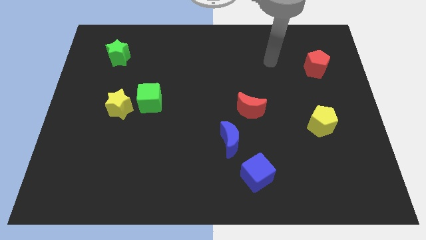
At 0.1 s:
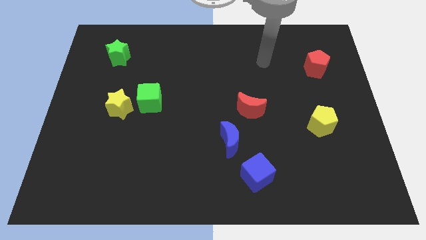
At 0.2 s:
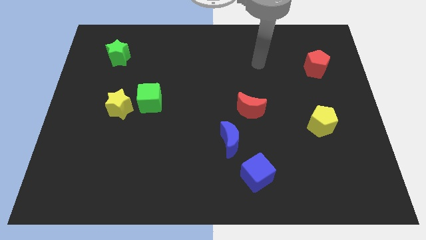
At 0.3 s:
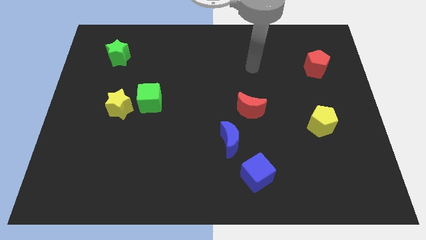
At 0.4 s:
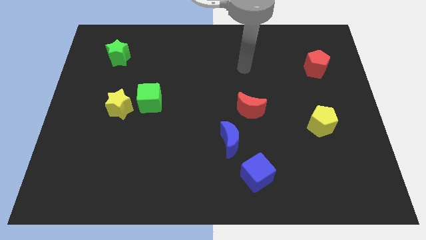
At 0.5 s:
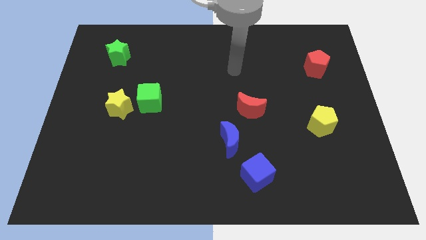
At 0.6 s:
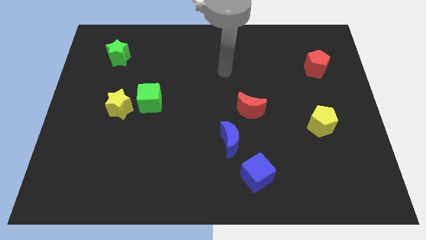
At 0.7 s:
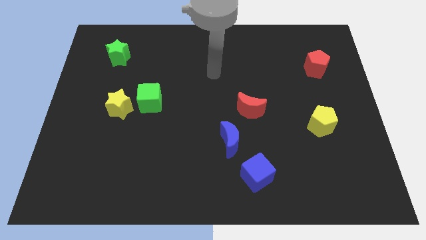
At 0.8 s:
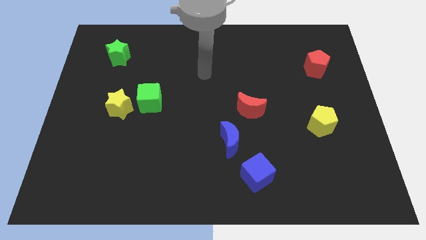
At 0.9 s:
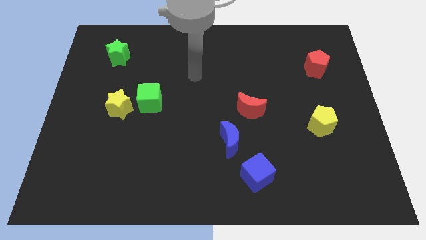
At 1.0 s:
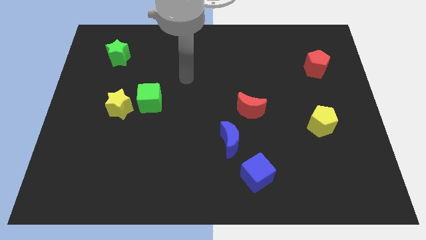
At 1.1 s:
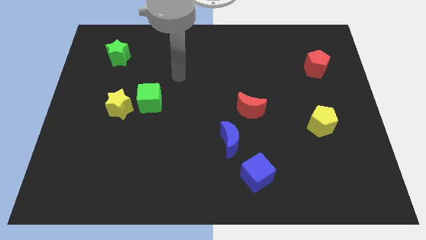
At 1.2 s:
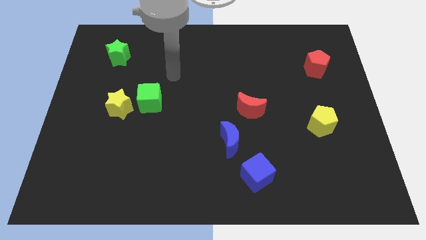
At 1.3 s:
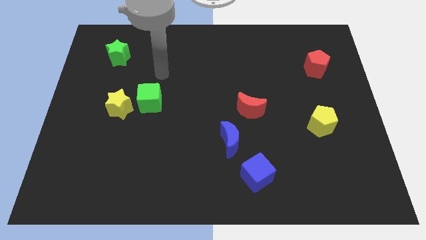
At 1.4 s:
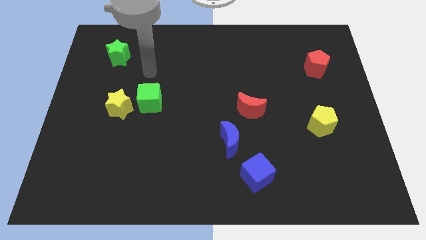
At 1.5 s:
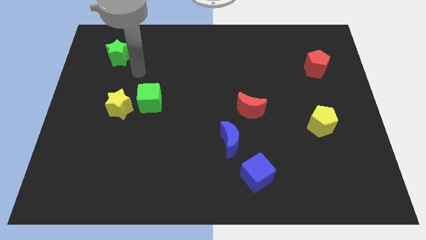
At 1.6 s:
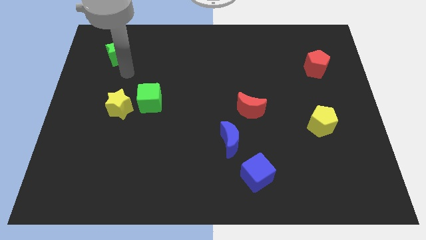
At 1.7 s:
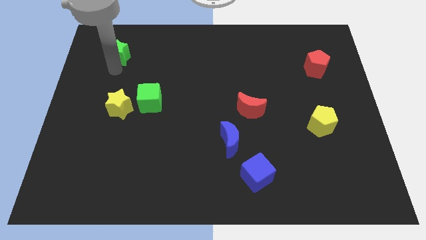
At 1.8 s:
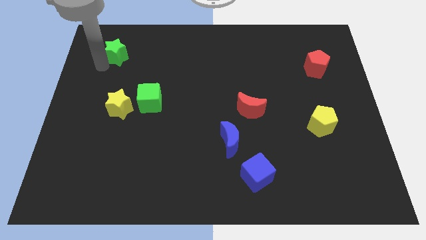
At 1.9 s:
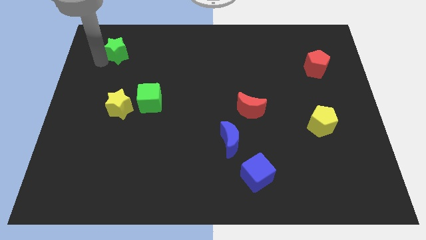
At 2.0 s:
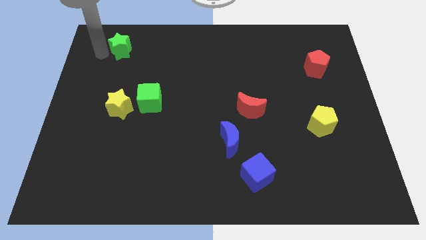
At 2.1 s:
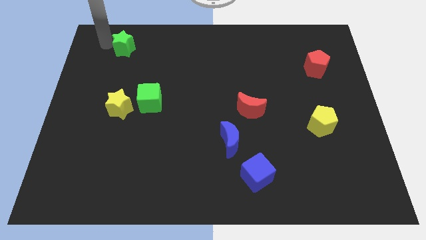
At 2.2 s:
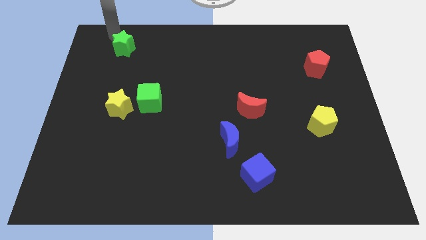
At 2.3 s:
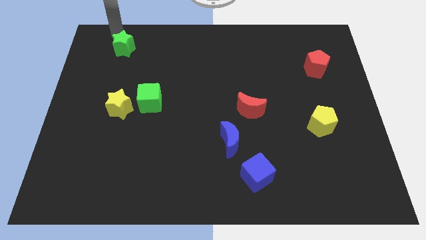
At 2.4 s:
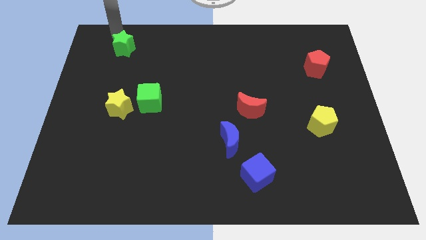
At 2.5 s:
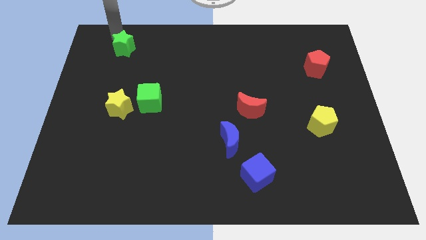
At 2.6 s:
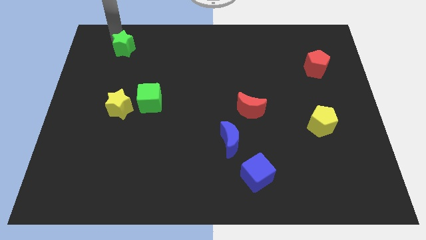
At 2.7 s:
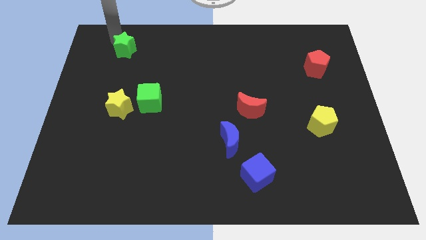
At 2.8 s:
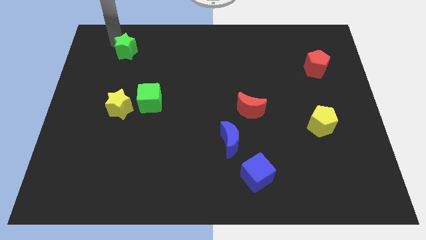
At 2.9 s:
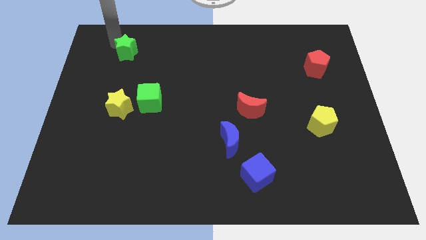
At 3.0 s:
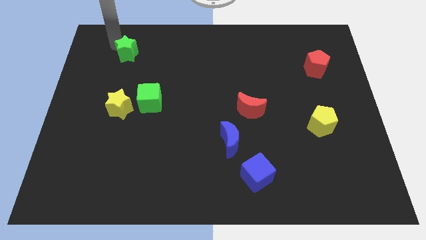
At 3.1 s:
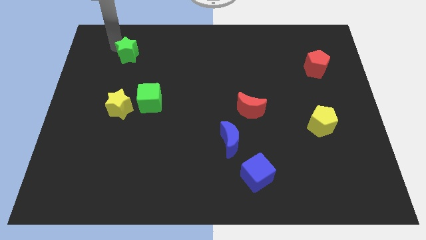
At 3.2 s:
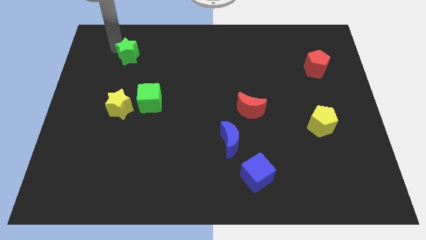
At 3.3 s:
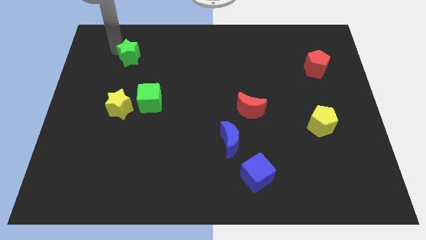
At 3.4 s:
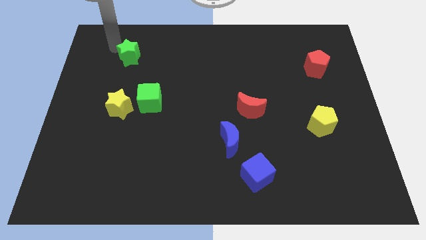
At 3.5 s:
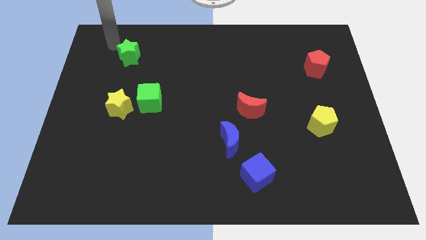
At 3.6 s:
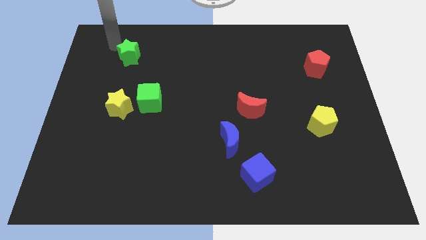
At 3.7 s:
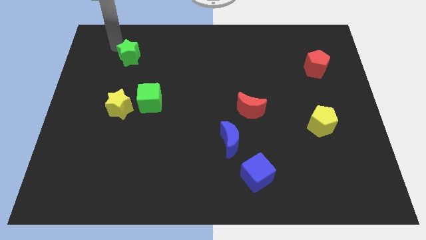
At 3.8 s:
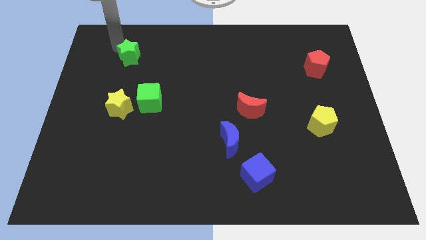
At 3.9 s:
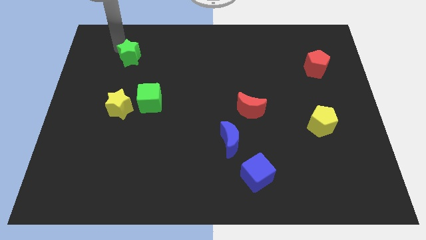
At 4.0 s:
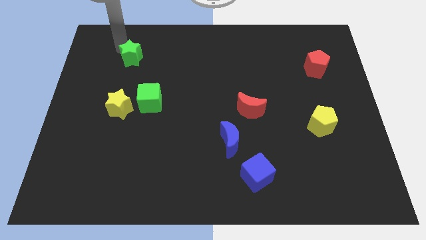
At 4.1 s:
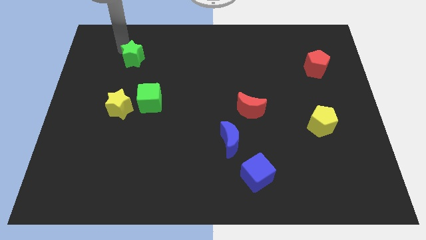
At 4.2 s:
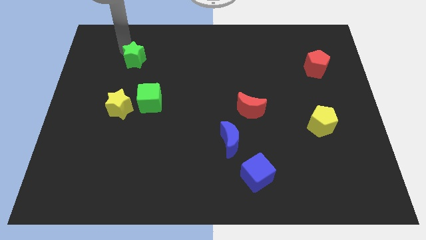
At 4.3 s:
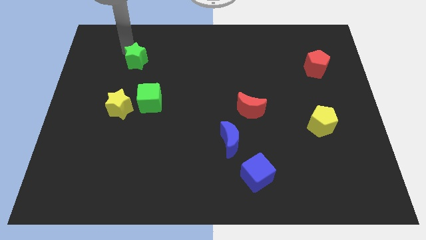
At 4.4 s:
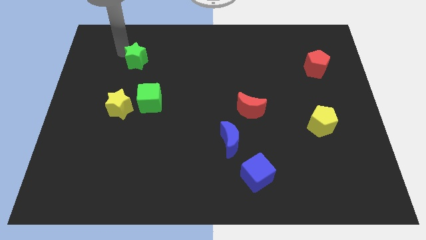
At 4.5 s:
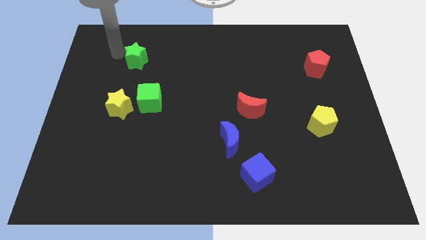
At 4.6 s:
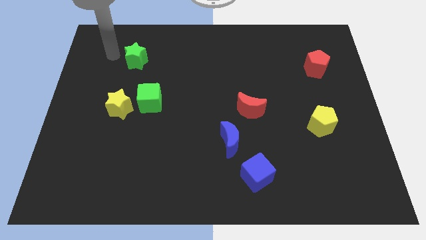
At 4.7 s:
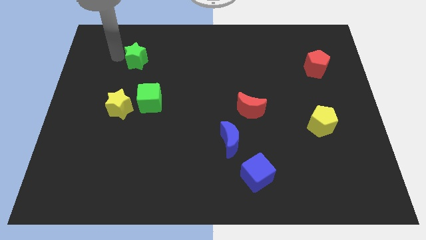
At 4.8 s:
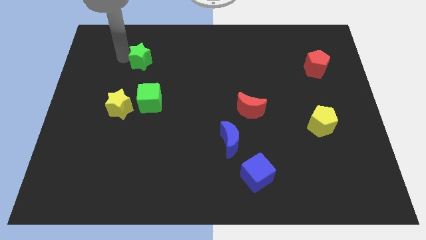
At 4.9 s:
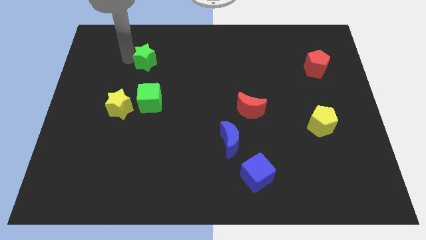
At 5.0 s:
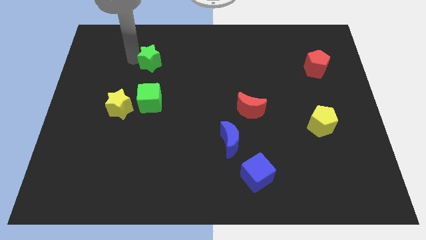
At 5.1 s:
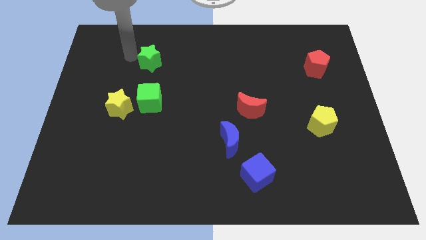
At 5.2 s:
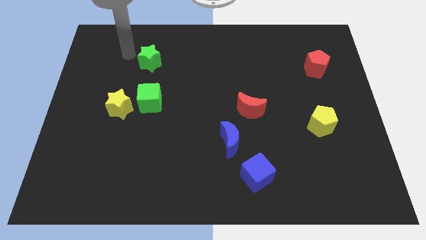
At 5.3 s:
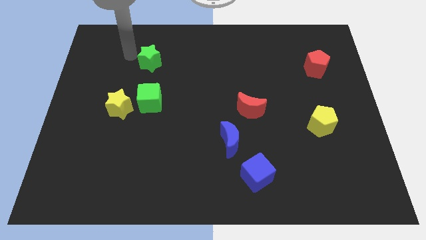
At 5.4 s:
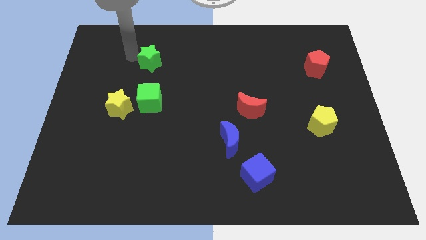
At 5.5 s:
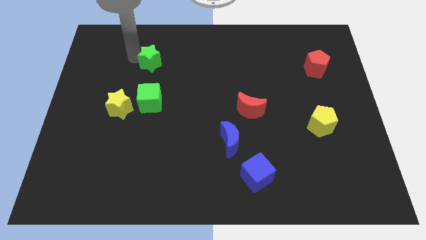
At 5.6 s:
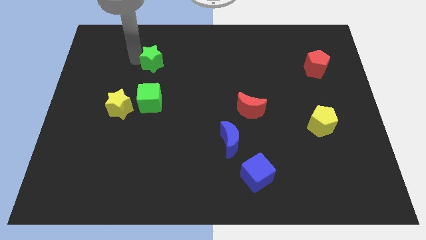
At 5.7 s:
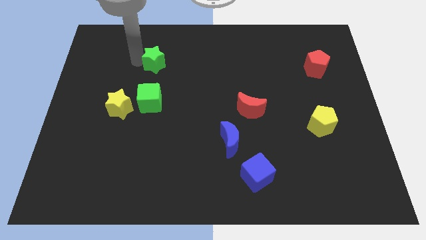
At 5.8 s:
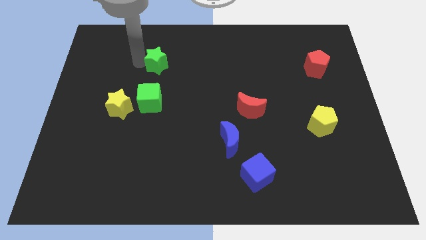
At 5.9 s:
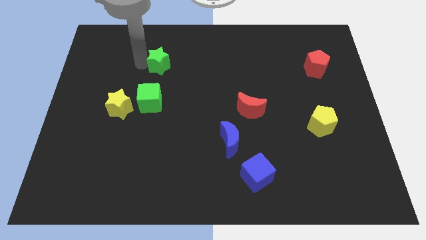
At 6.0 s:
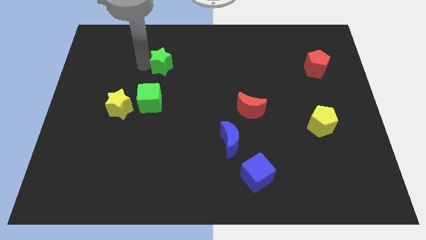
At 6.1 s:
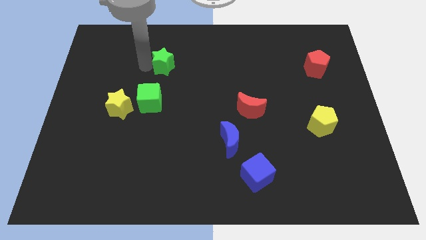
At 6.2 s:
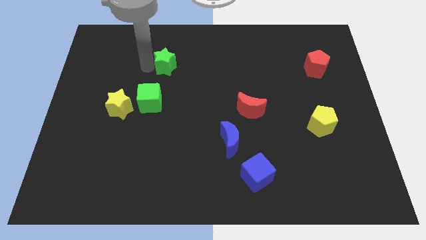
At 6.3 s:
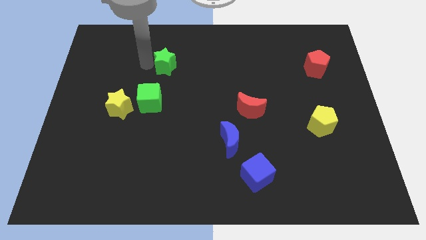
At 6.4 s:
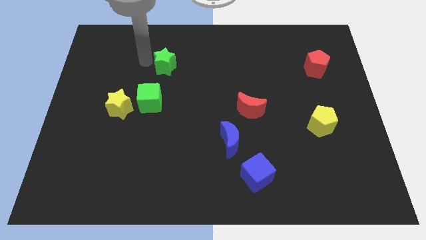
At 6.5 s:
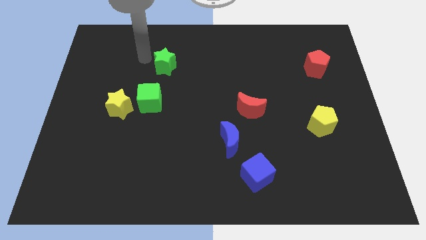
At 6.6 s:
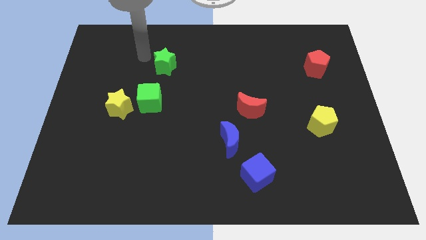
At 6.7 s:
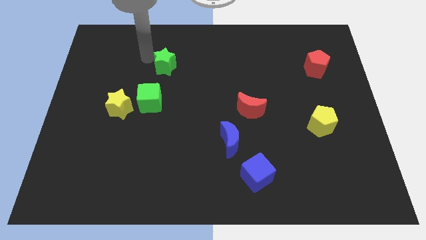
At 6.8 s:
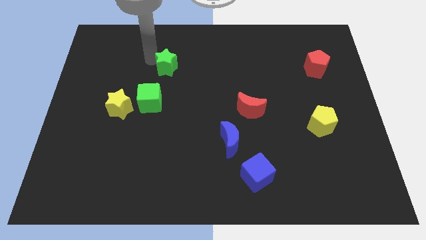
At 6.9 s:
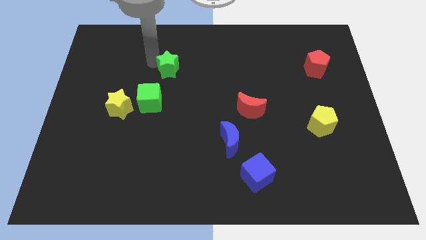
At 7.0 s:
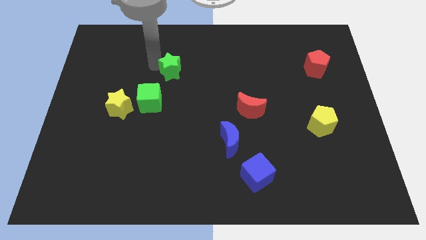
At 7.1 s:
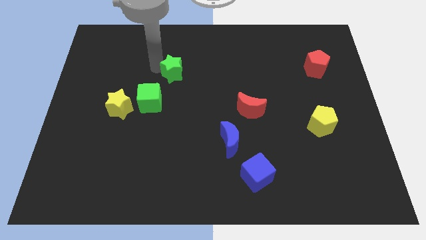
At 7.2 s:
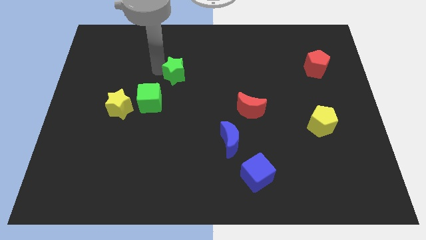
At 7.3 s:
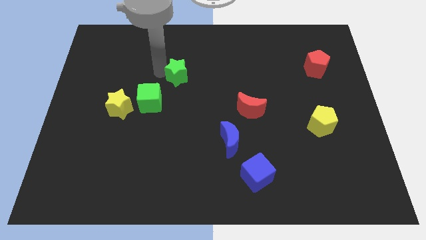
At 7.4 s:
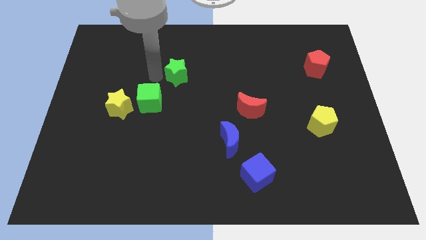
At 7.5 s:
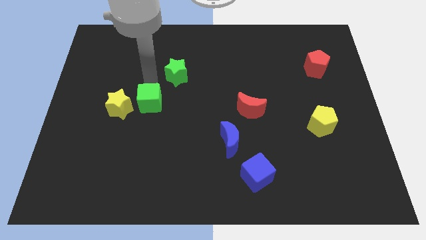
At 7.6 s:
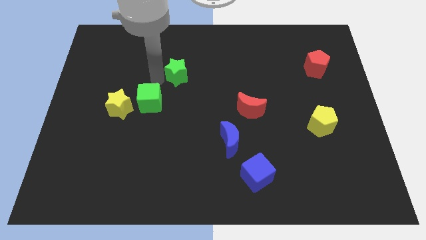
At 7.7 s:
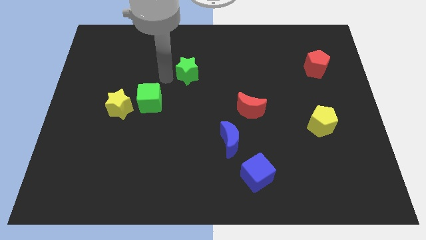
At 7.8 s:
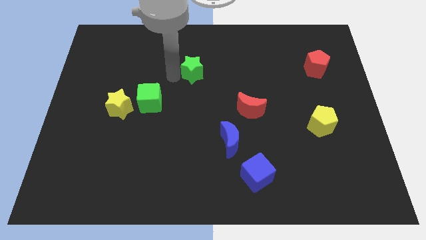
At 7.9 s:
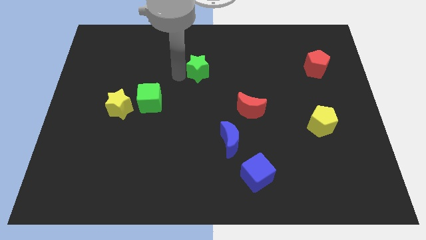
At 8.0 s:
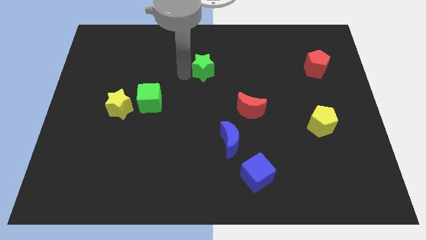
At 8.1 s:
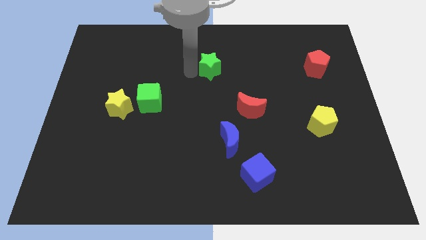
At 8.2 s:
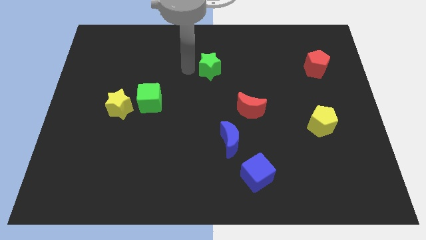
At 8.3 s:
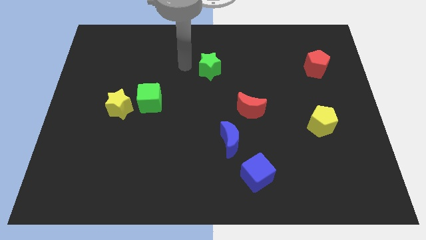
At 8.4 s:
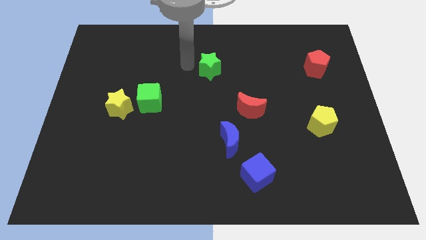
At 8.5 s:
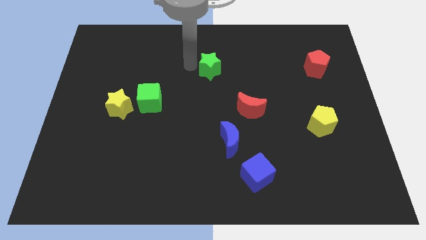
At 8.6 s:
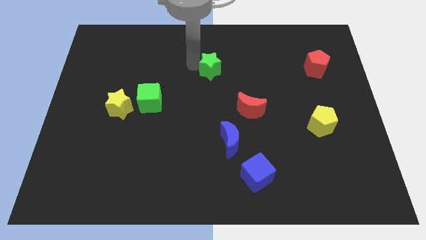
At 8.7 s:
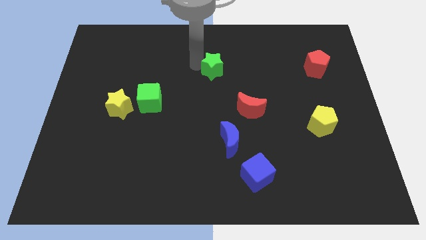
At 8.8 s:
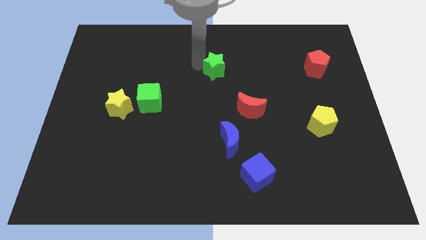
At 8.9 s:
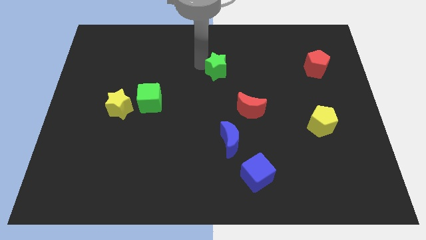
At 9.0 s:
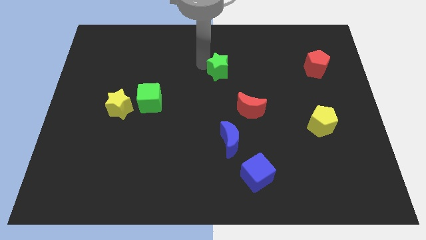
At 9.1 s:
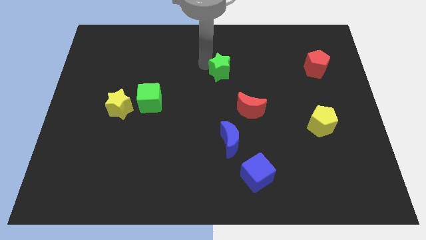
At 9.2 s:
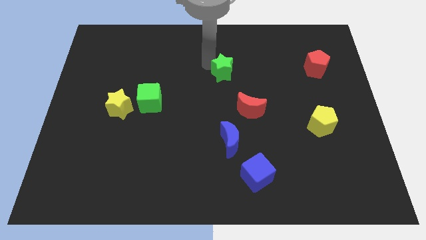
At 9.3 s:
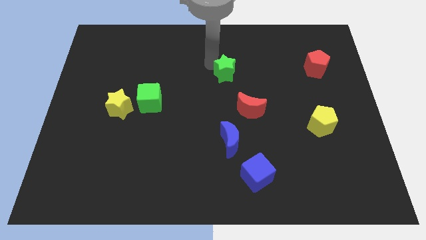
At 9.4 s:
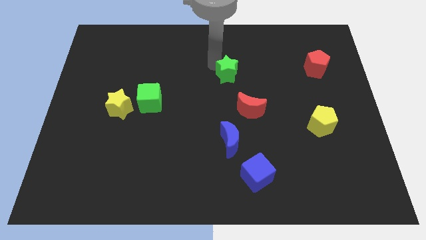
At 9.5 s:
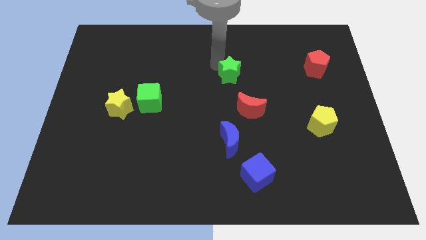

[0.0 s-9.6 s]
push the green star above the red moon
